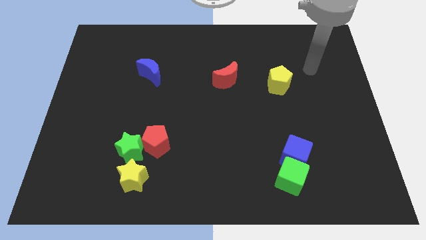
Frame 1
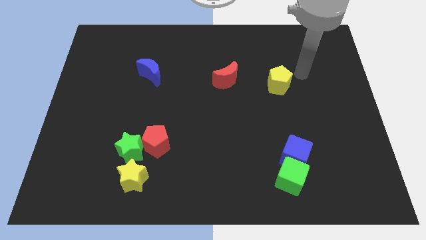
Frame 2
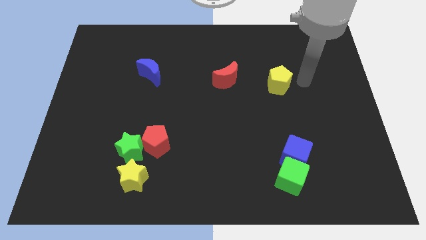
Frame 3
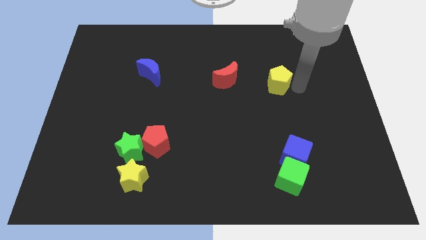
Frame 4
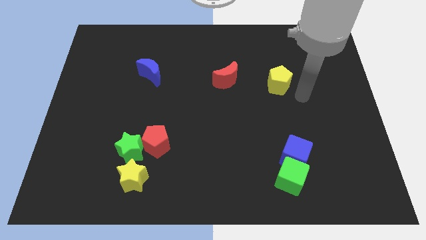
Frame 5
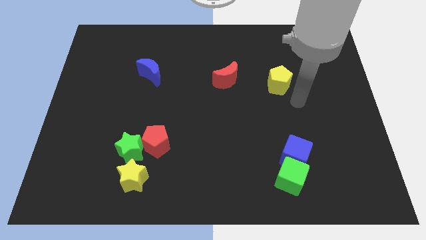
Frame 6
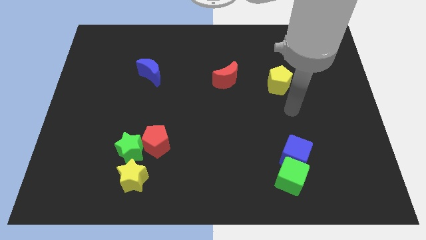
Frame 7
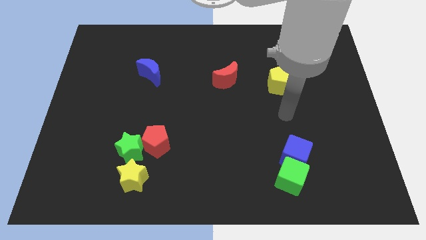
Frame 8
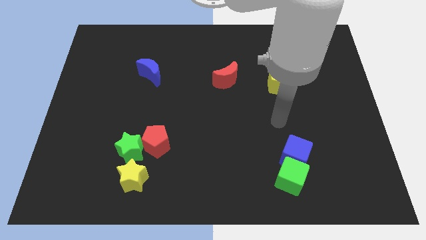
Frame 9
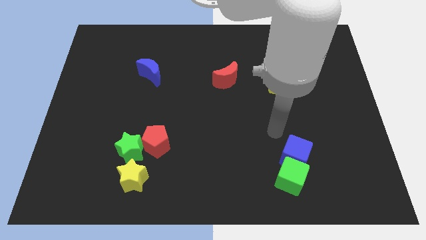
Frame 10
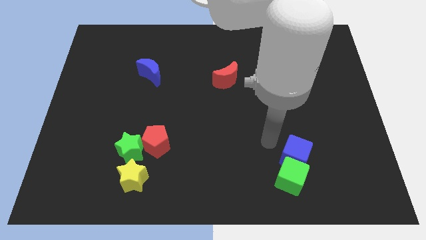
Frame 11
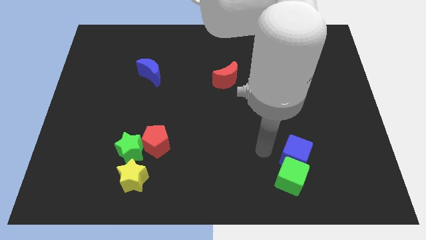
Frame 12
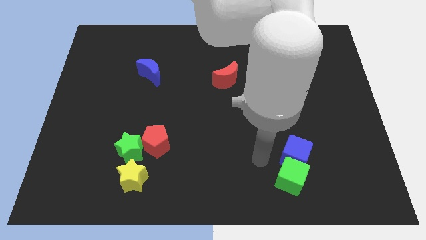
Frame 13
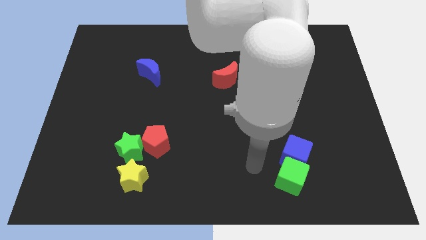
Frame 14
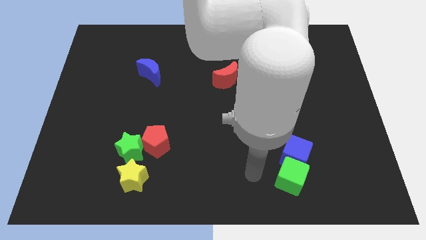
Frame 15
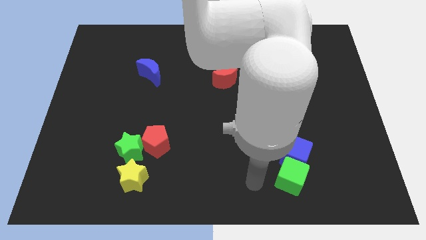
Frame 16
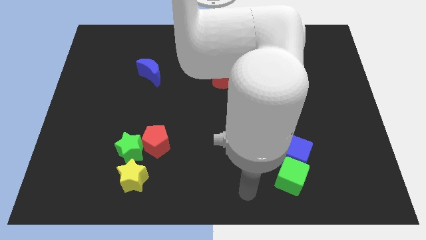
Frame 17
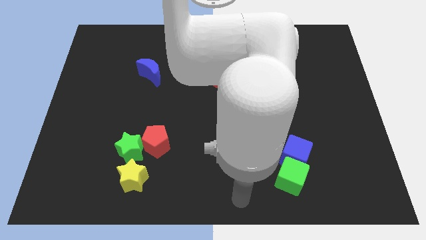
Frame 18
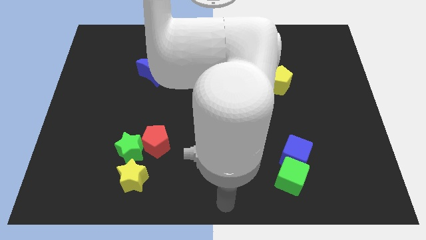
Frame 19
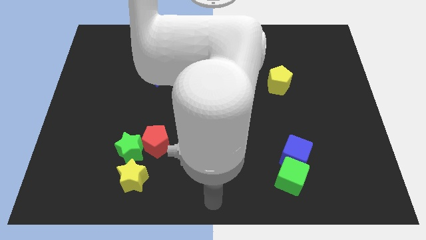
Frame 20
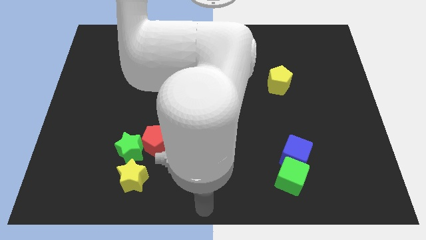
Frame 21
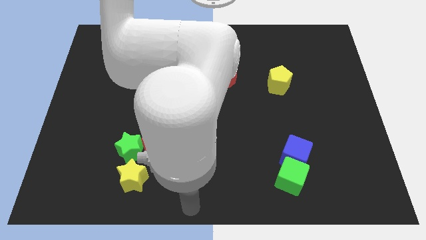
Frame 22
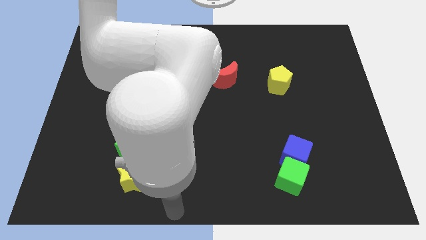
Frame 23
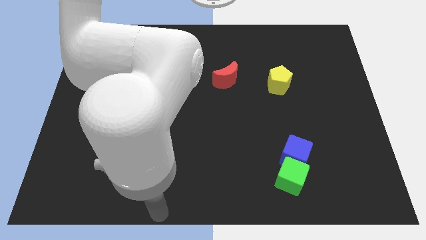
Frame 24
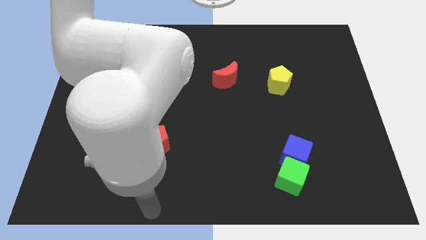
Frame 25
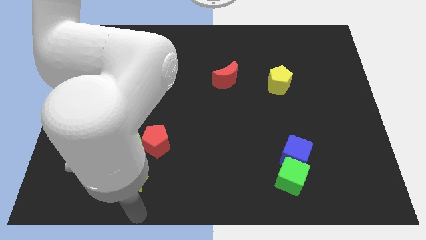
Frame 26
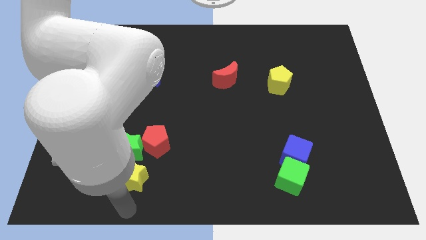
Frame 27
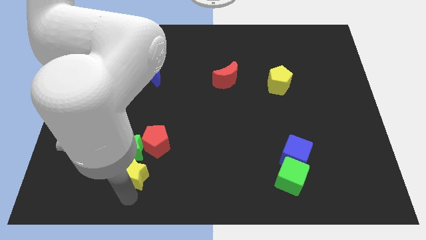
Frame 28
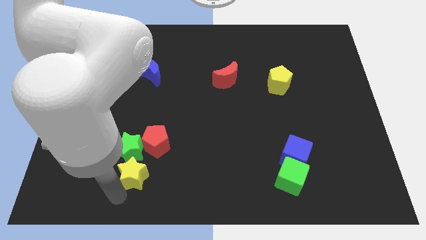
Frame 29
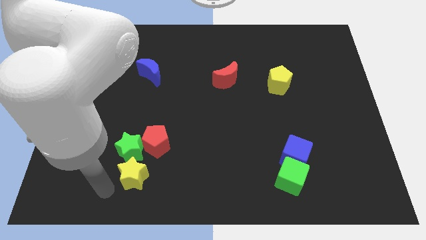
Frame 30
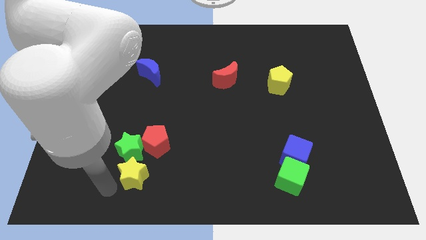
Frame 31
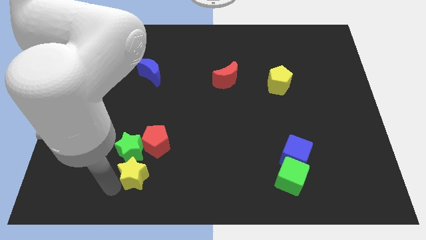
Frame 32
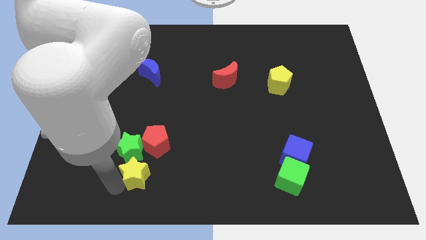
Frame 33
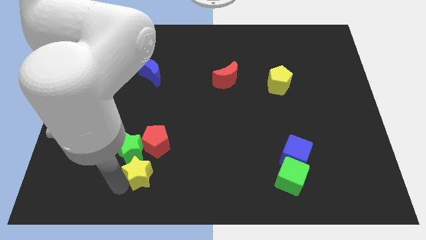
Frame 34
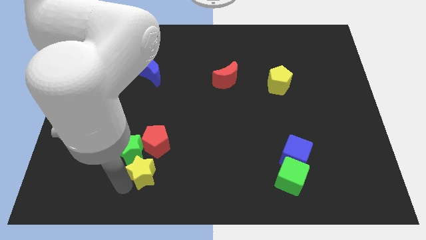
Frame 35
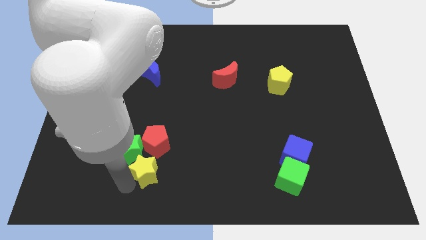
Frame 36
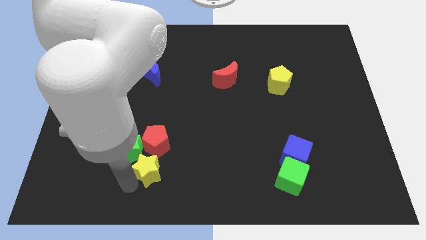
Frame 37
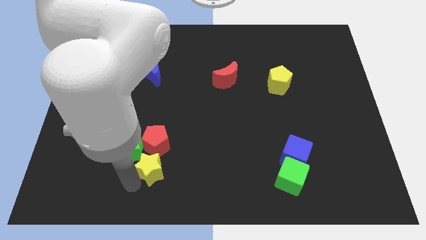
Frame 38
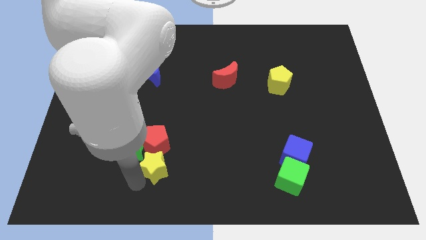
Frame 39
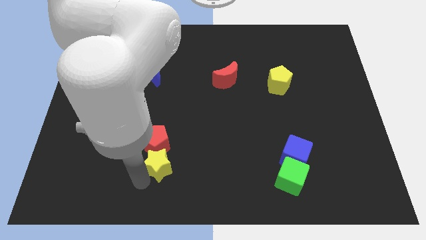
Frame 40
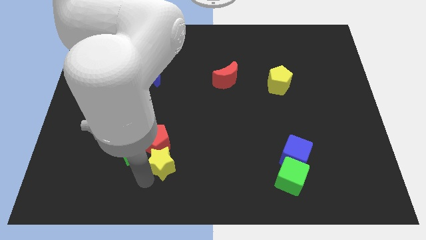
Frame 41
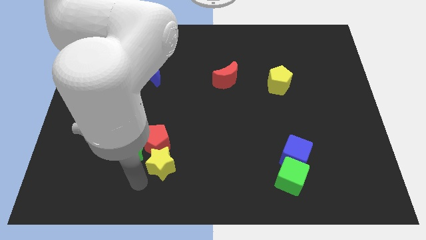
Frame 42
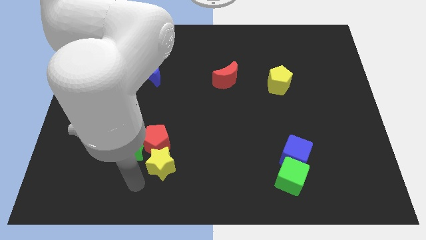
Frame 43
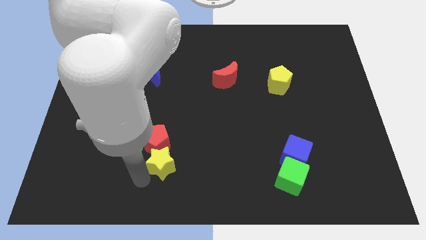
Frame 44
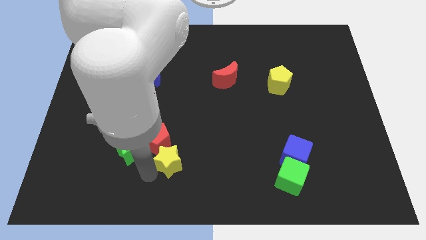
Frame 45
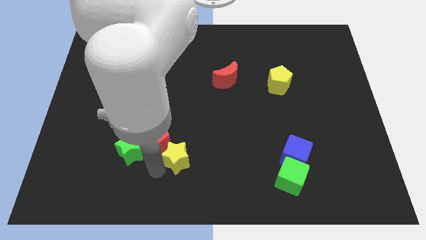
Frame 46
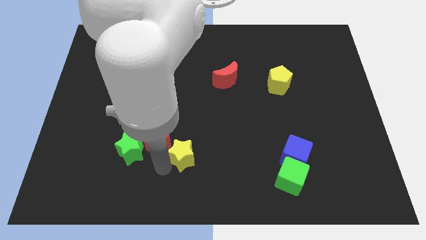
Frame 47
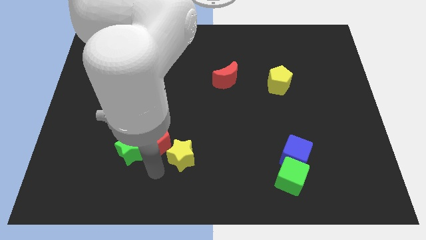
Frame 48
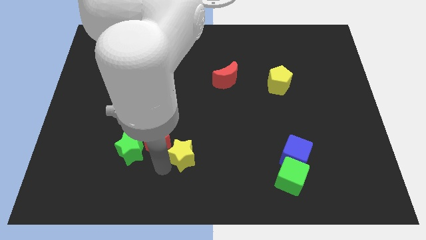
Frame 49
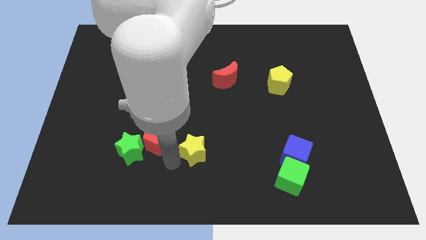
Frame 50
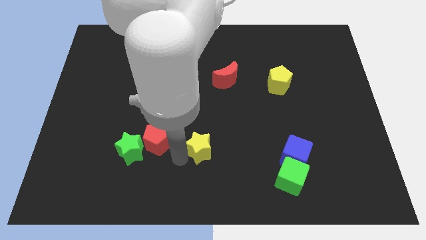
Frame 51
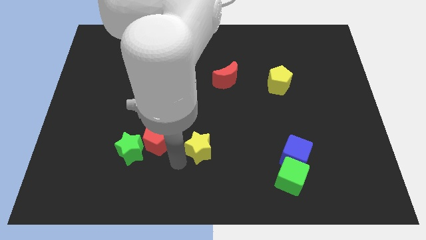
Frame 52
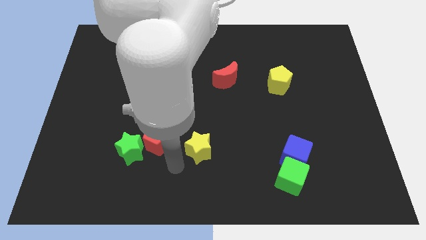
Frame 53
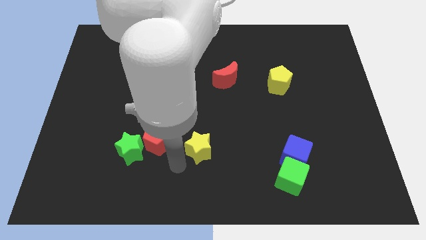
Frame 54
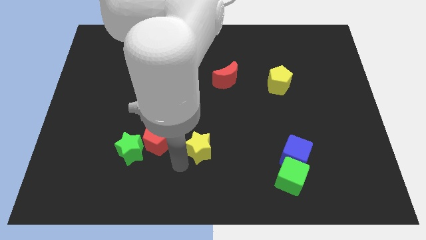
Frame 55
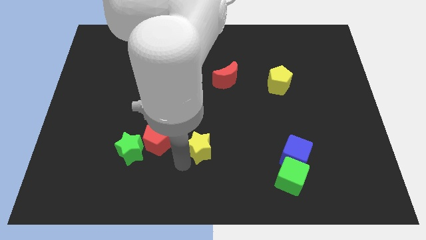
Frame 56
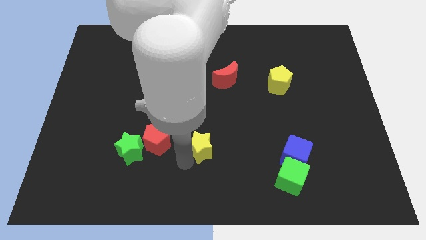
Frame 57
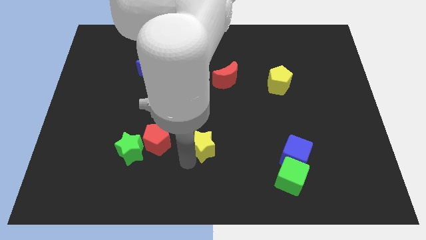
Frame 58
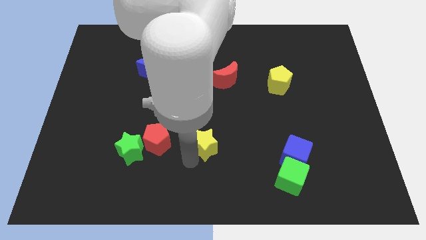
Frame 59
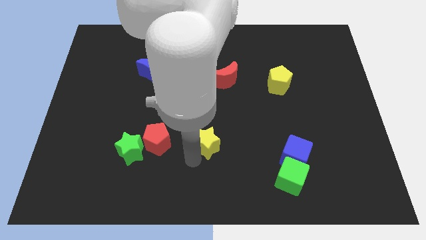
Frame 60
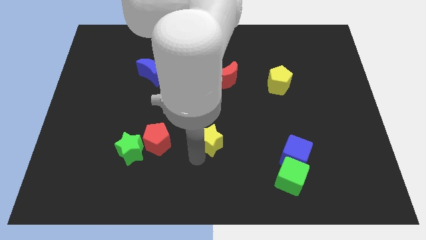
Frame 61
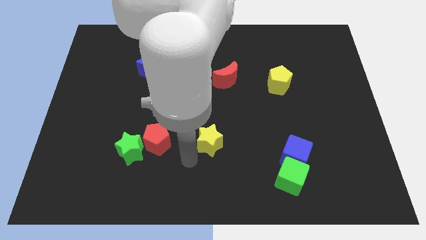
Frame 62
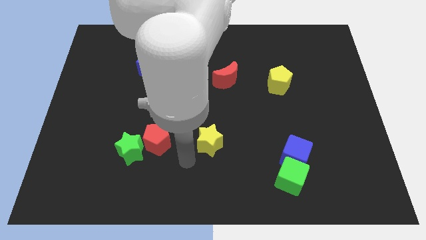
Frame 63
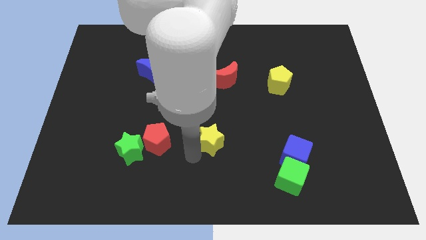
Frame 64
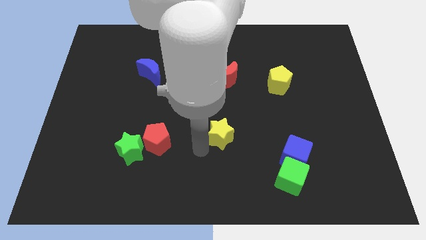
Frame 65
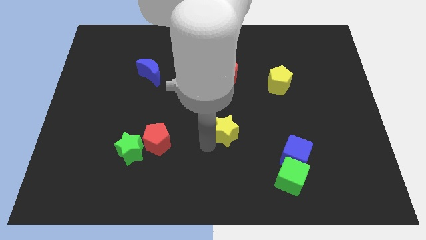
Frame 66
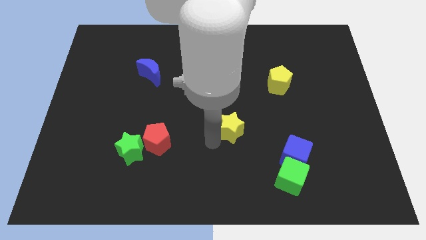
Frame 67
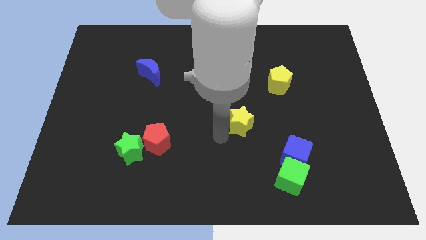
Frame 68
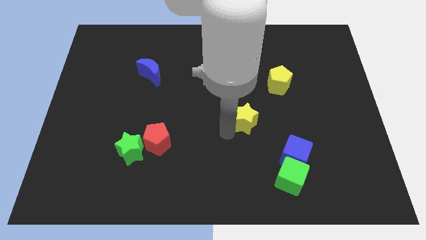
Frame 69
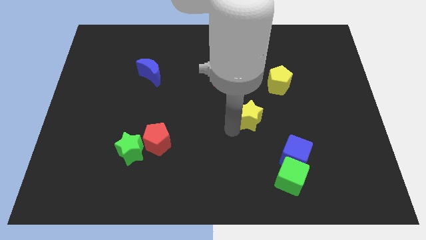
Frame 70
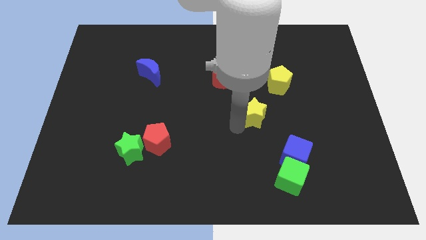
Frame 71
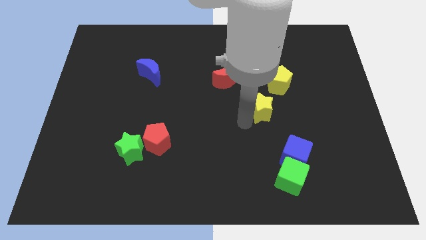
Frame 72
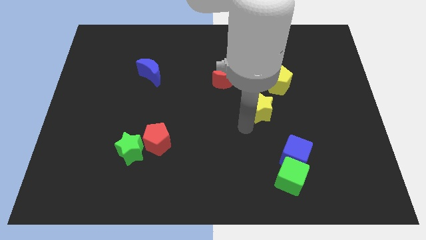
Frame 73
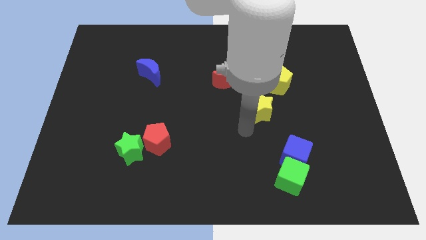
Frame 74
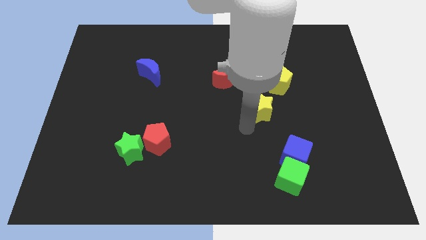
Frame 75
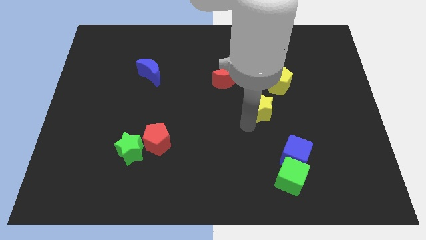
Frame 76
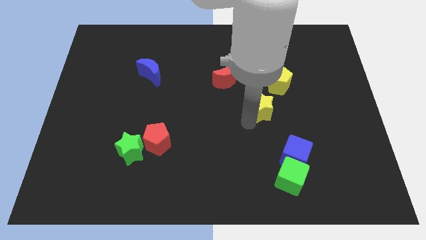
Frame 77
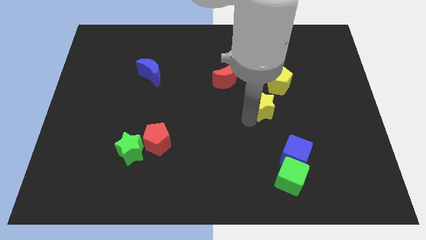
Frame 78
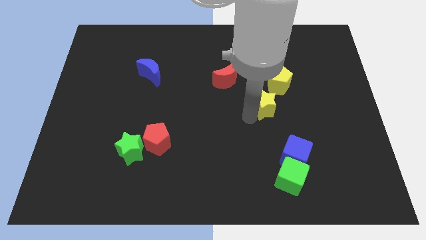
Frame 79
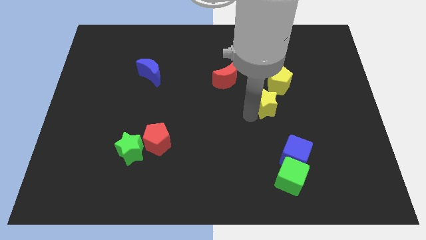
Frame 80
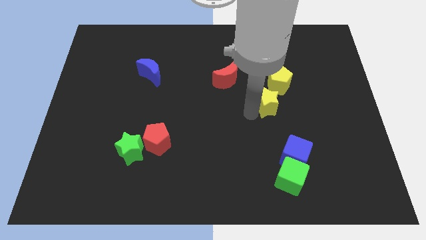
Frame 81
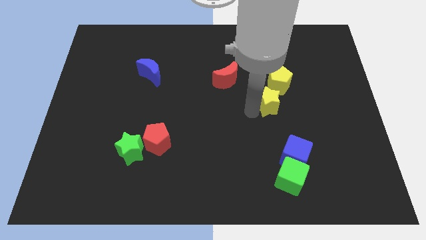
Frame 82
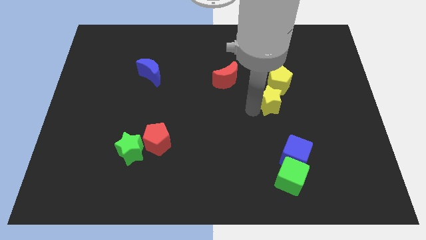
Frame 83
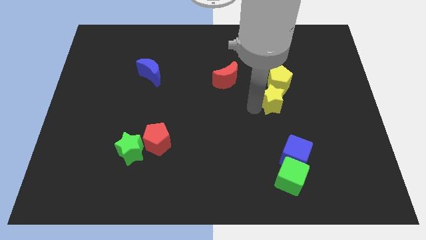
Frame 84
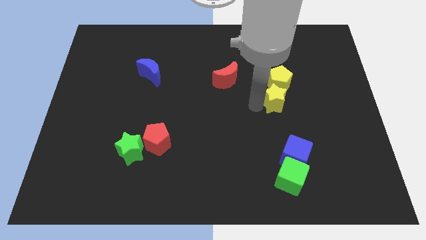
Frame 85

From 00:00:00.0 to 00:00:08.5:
put the yellow star next to the yellow pentagon
